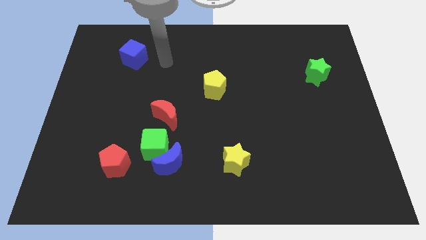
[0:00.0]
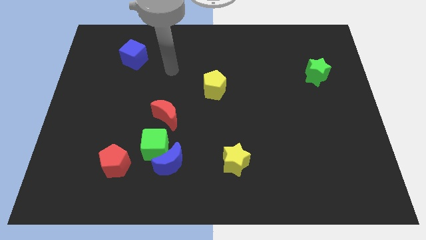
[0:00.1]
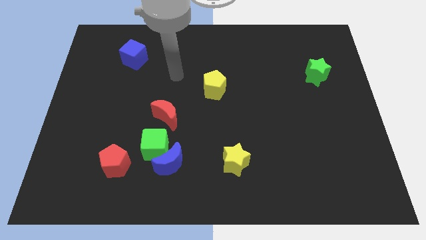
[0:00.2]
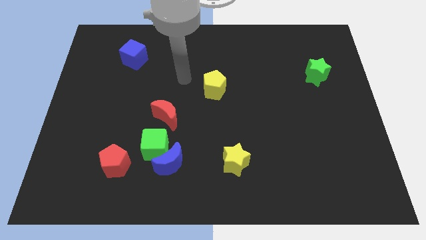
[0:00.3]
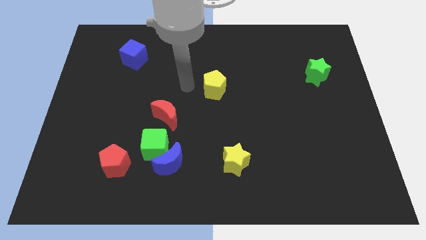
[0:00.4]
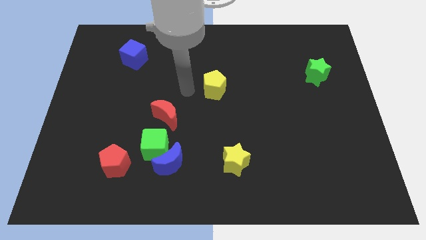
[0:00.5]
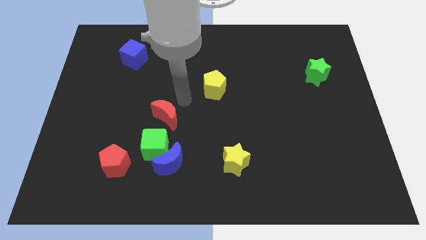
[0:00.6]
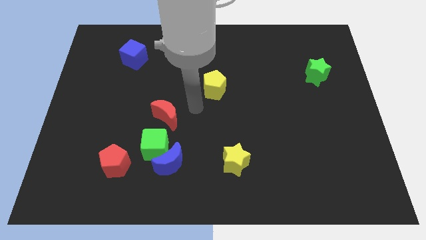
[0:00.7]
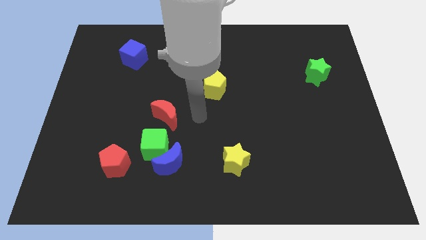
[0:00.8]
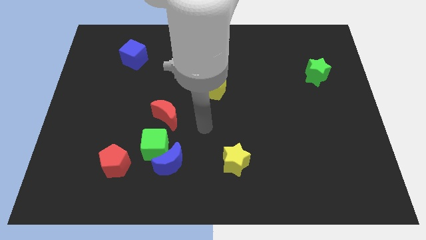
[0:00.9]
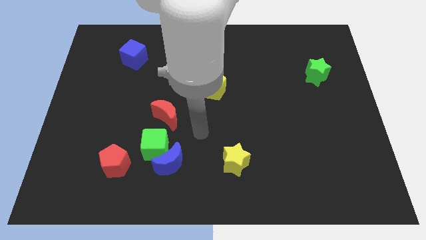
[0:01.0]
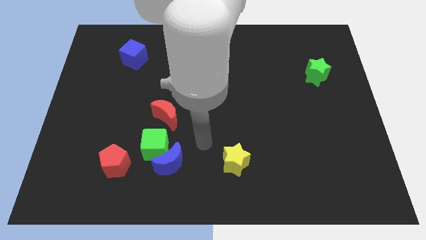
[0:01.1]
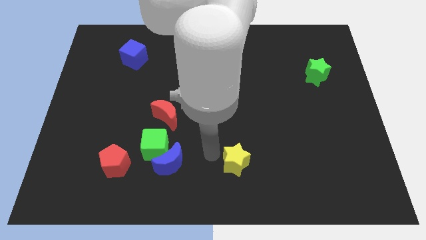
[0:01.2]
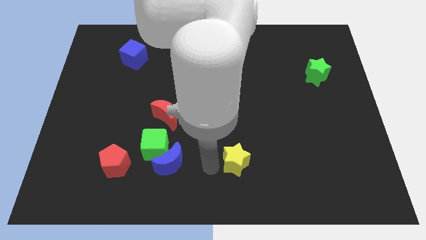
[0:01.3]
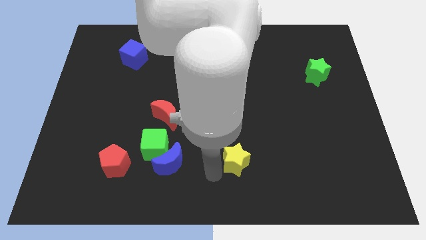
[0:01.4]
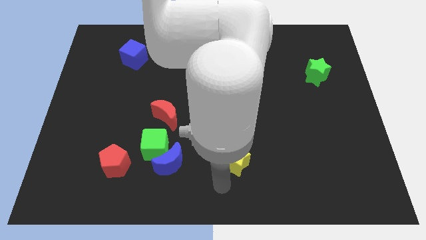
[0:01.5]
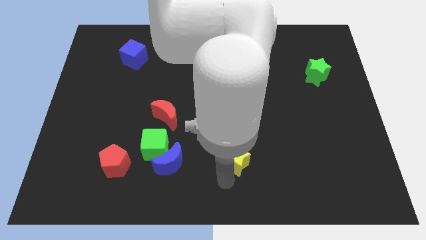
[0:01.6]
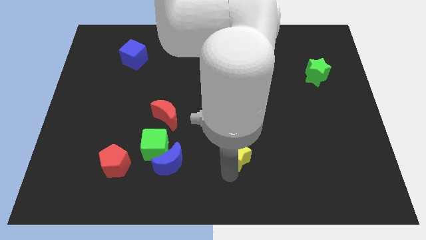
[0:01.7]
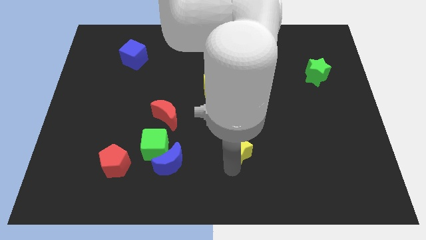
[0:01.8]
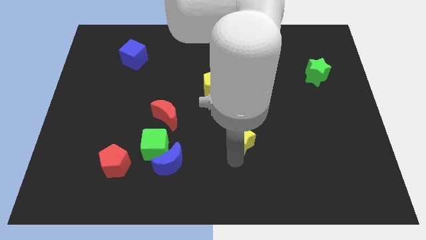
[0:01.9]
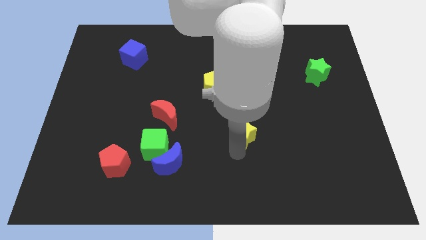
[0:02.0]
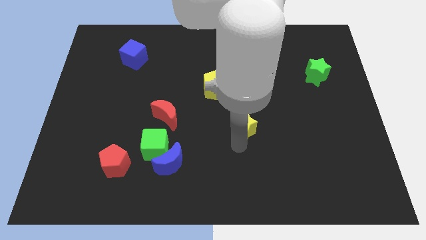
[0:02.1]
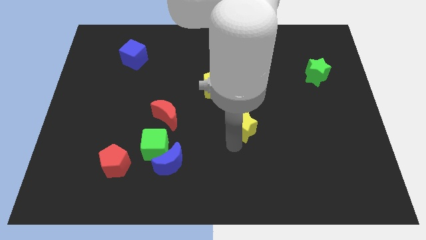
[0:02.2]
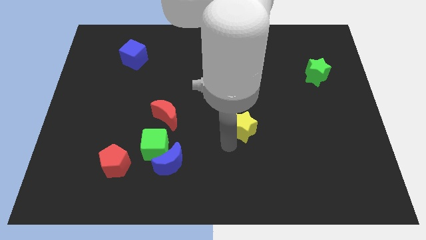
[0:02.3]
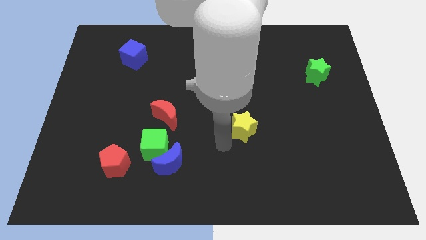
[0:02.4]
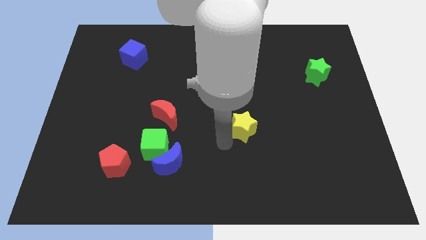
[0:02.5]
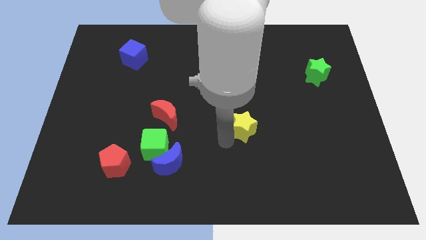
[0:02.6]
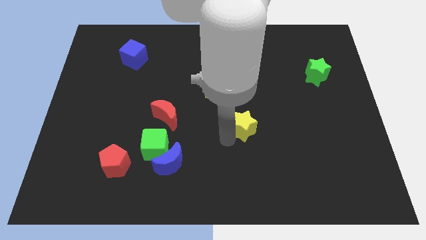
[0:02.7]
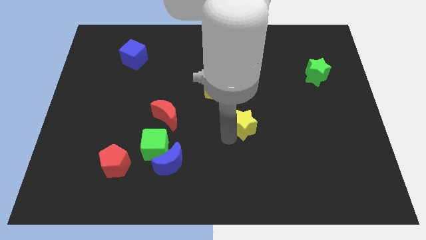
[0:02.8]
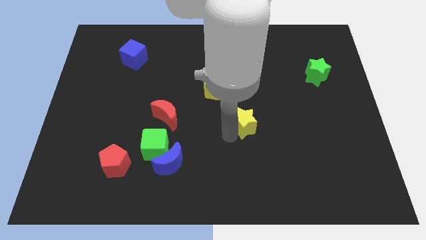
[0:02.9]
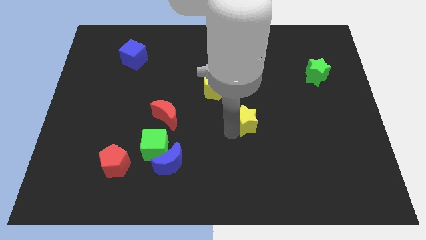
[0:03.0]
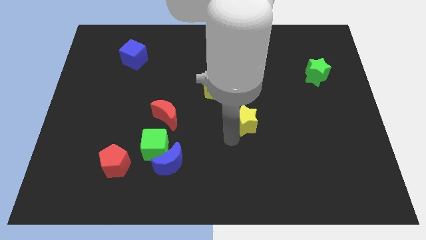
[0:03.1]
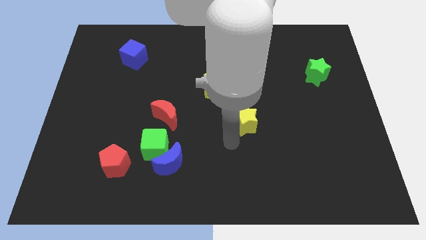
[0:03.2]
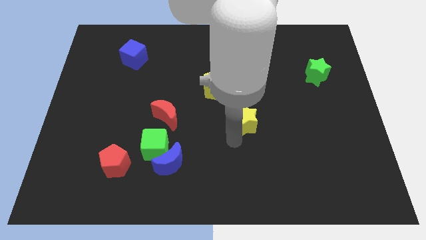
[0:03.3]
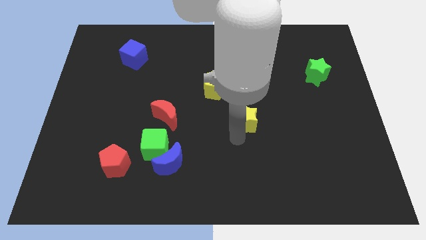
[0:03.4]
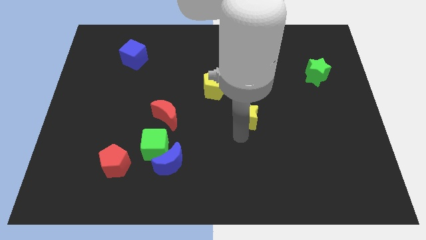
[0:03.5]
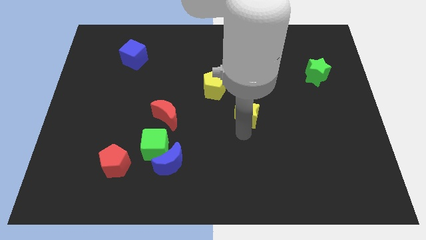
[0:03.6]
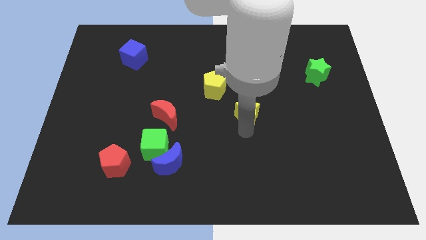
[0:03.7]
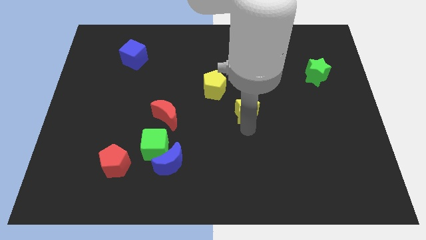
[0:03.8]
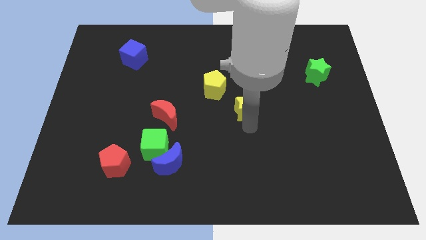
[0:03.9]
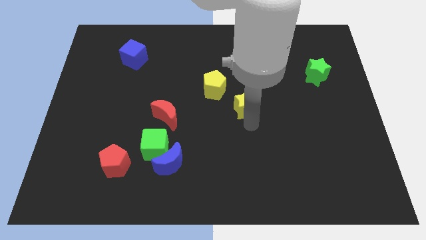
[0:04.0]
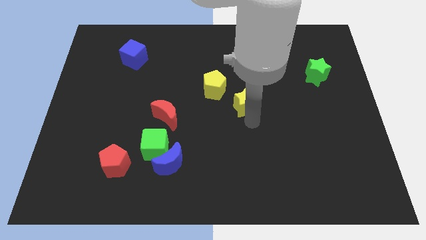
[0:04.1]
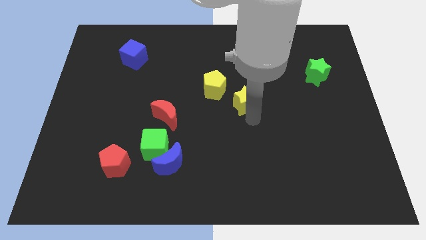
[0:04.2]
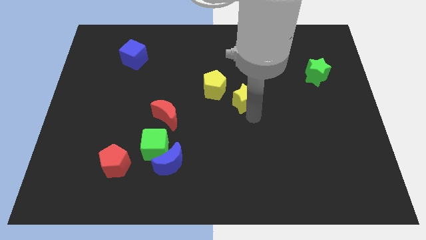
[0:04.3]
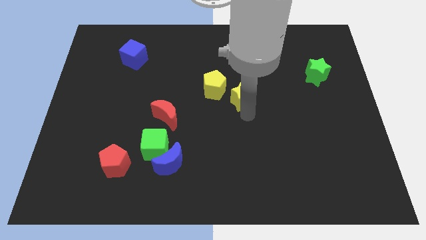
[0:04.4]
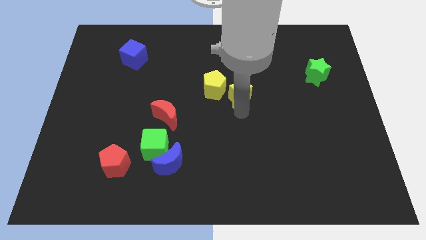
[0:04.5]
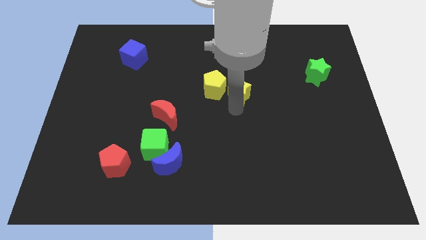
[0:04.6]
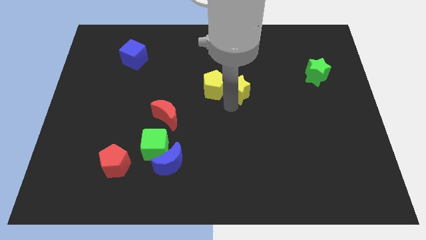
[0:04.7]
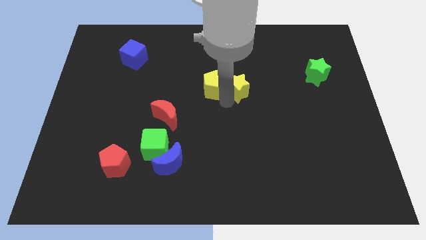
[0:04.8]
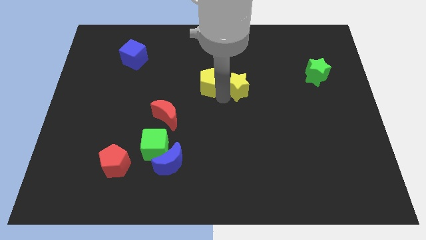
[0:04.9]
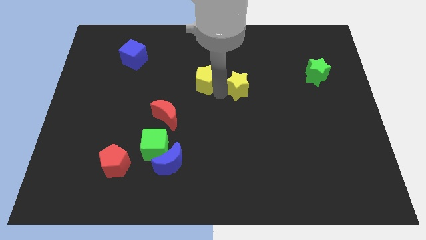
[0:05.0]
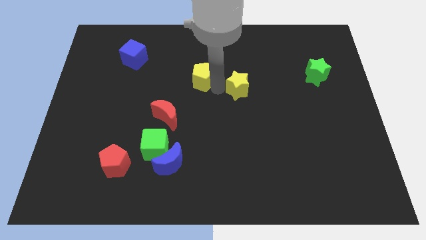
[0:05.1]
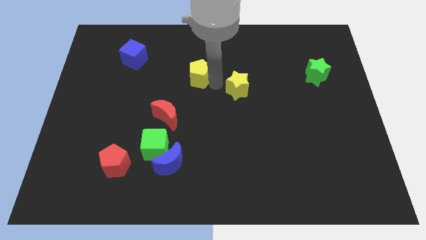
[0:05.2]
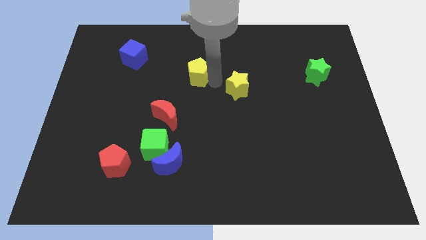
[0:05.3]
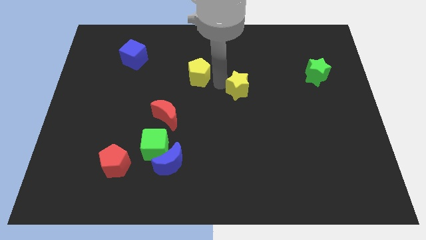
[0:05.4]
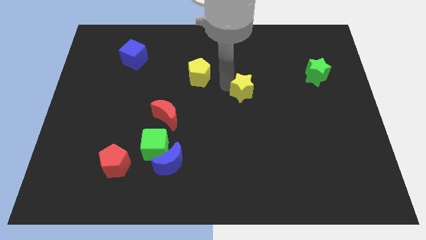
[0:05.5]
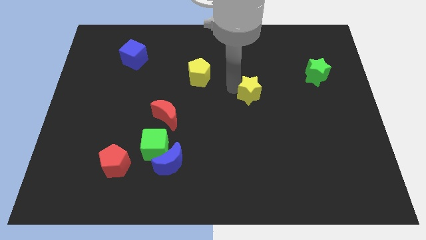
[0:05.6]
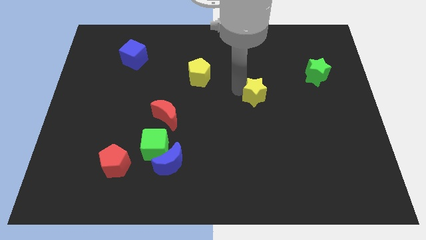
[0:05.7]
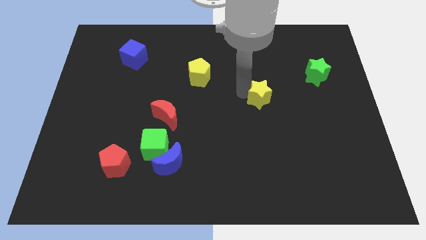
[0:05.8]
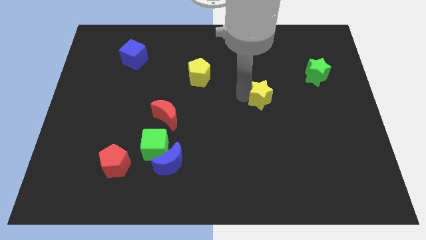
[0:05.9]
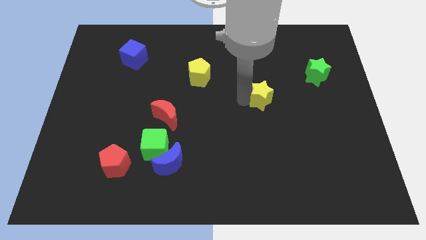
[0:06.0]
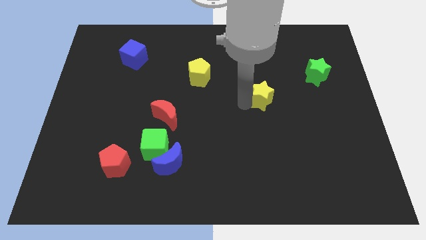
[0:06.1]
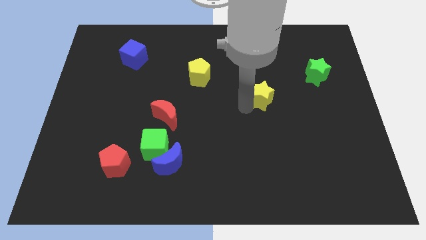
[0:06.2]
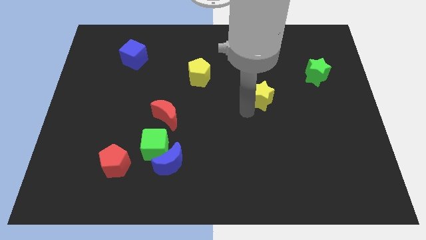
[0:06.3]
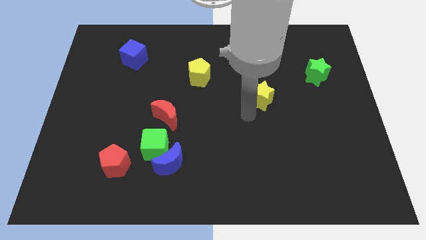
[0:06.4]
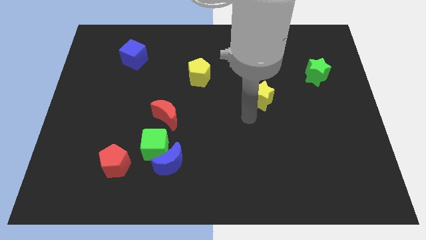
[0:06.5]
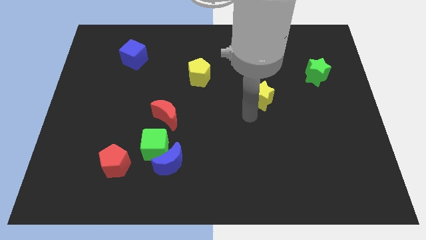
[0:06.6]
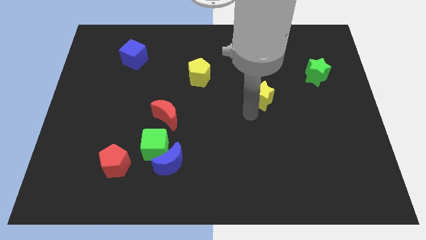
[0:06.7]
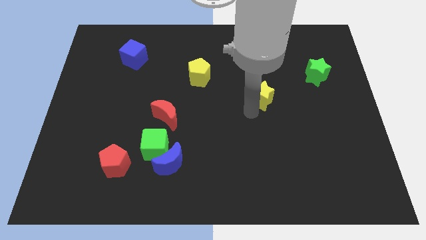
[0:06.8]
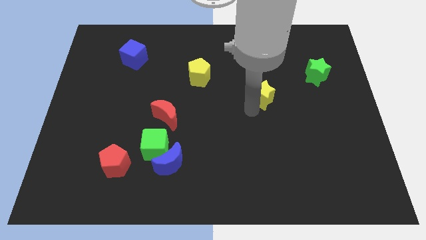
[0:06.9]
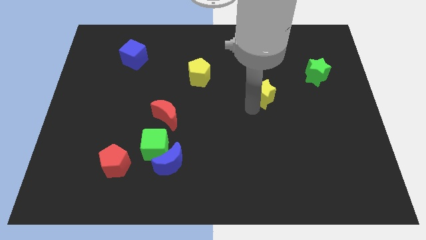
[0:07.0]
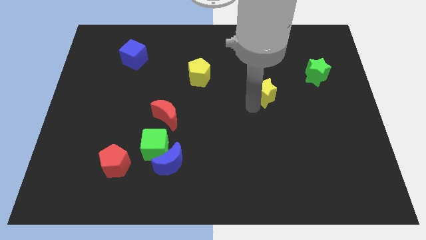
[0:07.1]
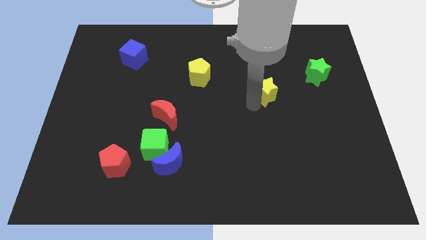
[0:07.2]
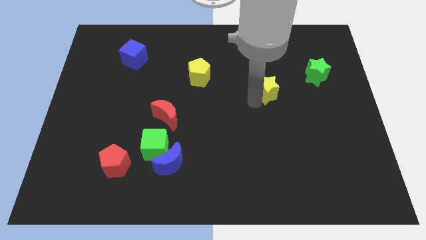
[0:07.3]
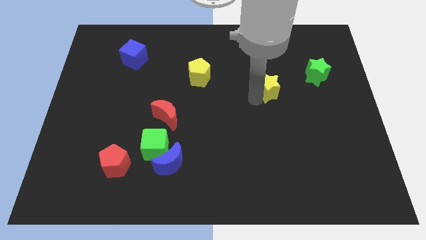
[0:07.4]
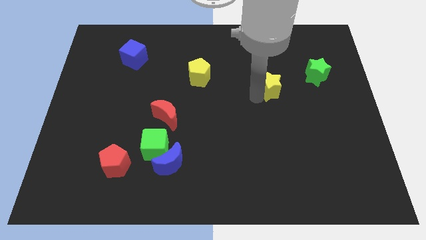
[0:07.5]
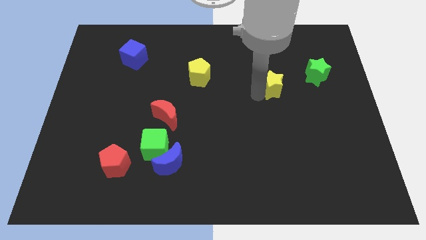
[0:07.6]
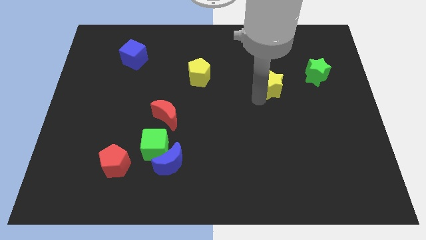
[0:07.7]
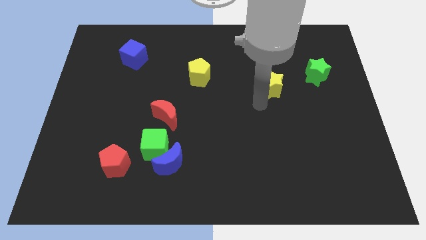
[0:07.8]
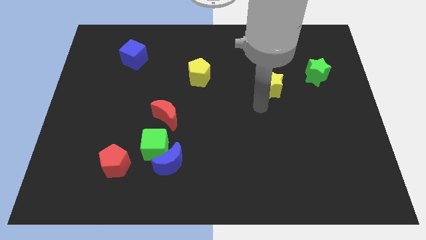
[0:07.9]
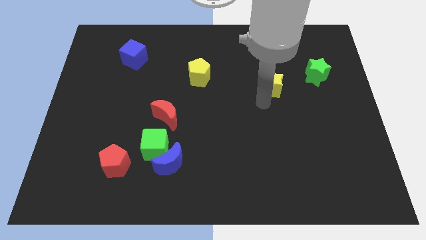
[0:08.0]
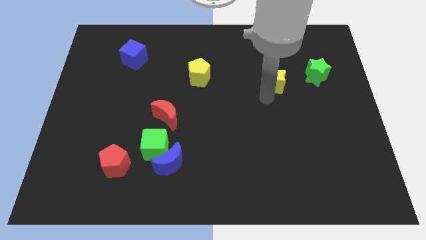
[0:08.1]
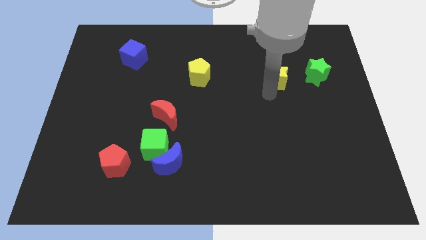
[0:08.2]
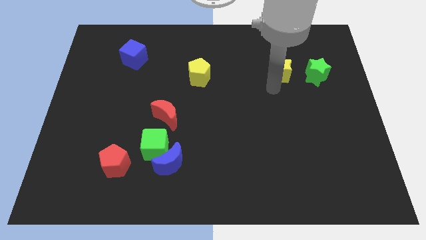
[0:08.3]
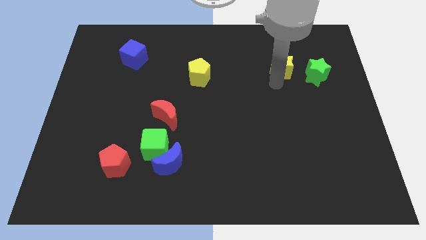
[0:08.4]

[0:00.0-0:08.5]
move the yellow star to the top left side of the green star
